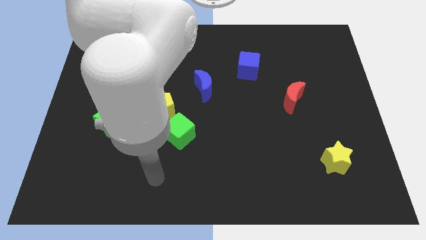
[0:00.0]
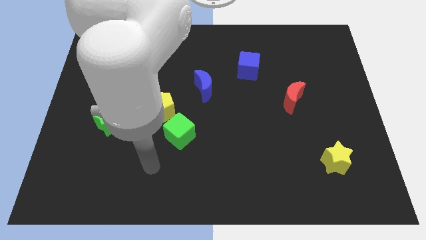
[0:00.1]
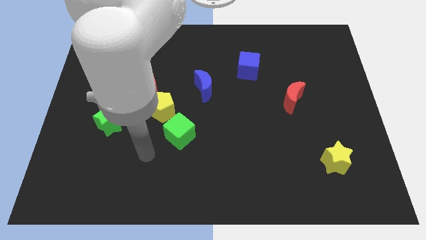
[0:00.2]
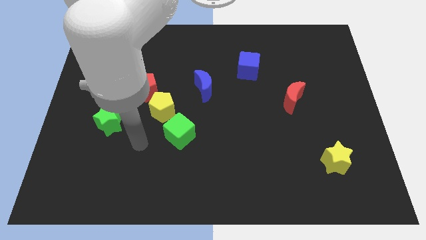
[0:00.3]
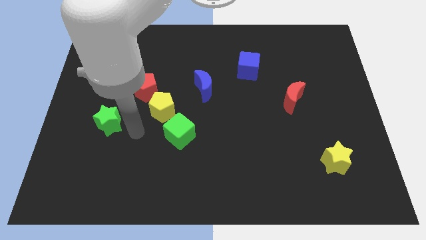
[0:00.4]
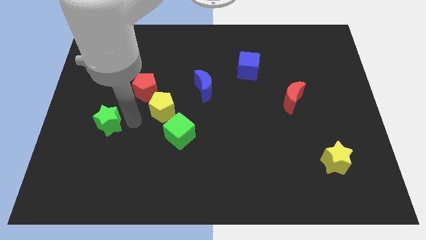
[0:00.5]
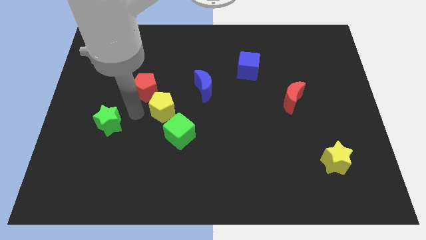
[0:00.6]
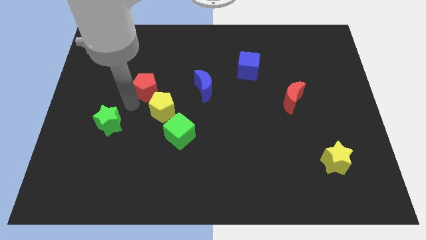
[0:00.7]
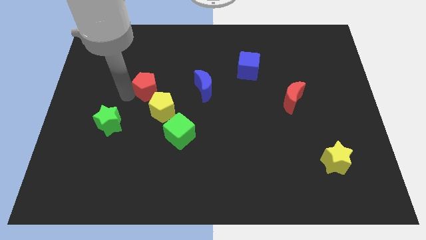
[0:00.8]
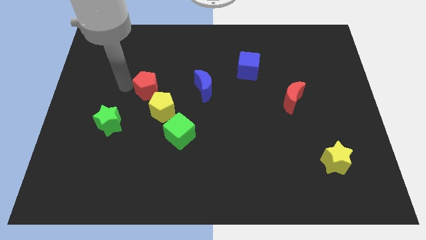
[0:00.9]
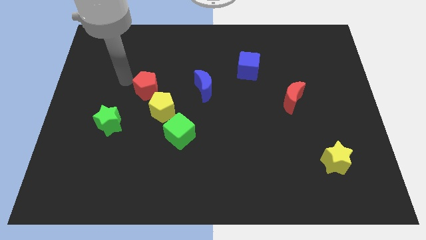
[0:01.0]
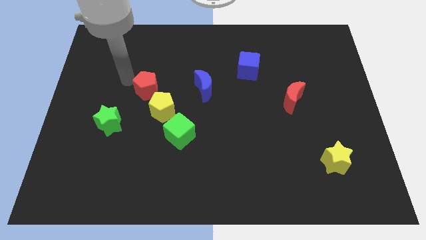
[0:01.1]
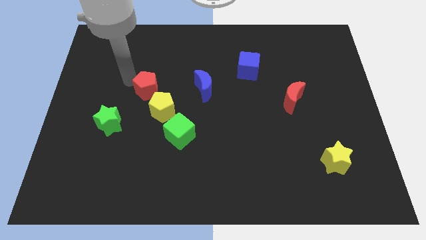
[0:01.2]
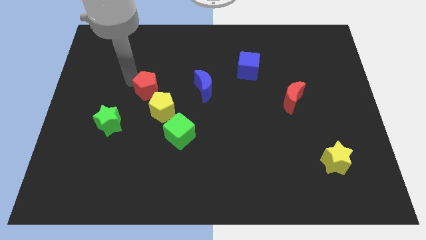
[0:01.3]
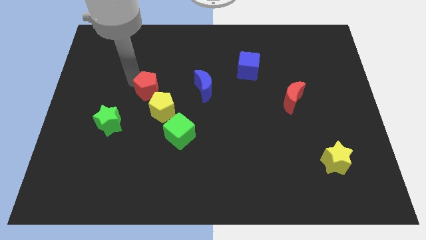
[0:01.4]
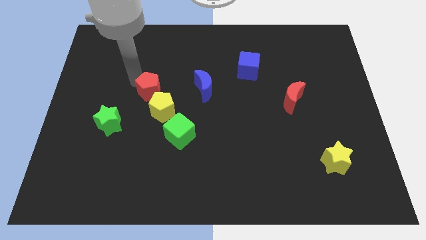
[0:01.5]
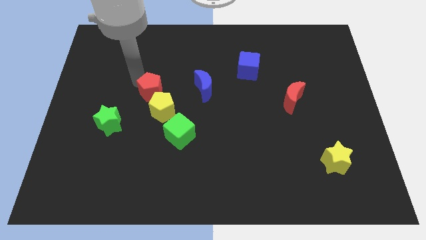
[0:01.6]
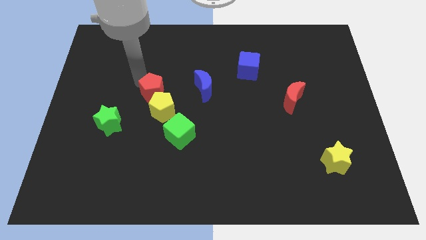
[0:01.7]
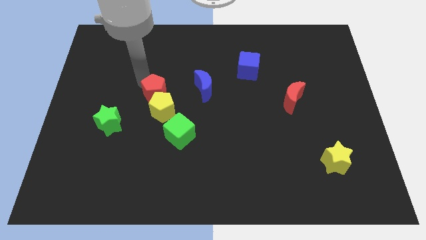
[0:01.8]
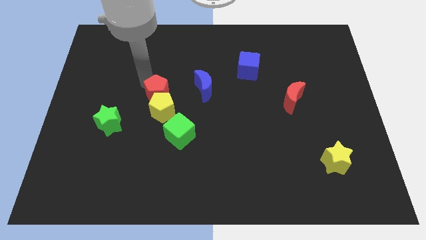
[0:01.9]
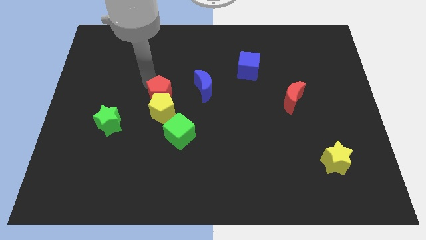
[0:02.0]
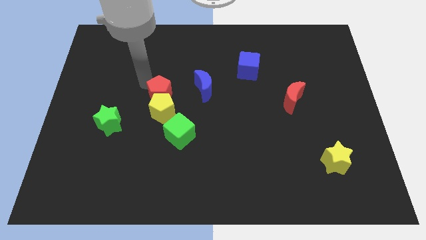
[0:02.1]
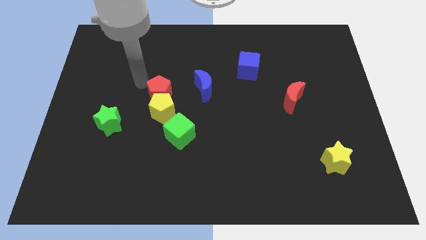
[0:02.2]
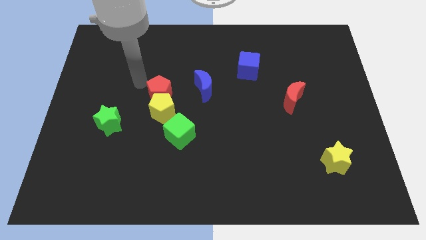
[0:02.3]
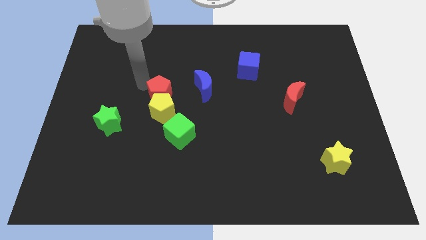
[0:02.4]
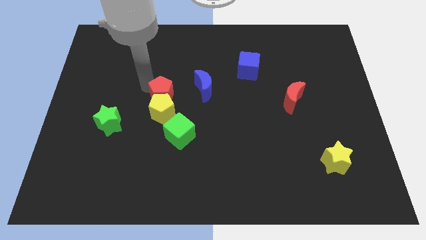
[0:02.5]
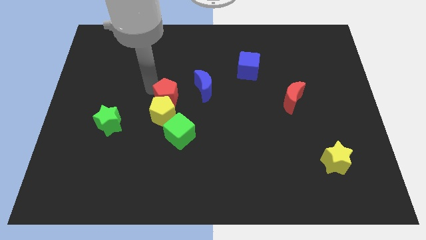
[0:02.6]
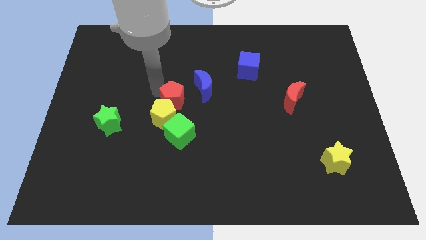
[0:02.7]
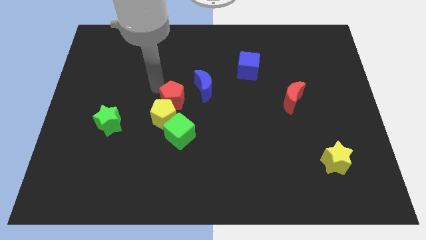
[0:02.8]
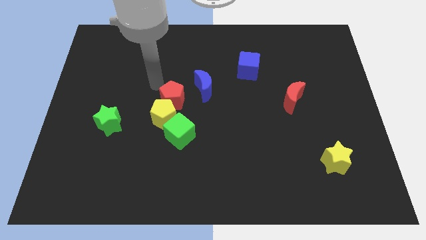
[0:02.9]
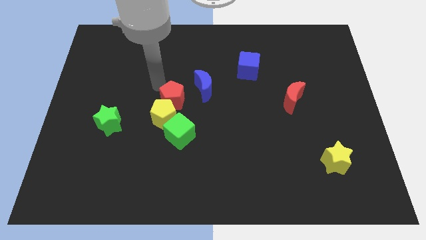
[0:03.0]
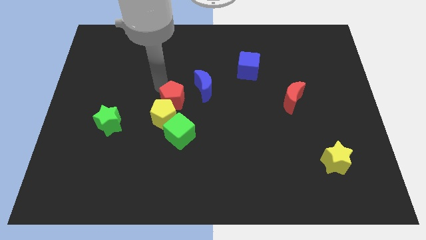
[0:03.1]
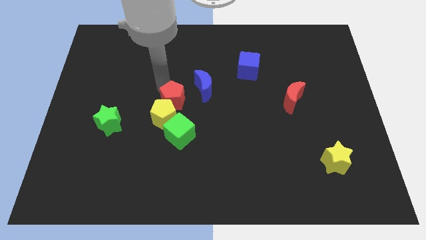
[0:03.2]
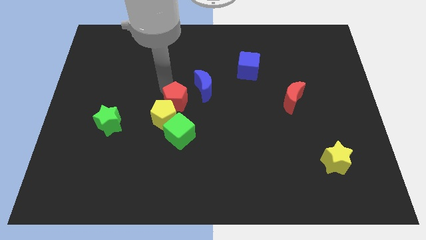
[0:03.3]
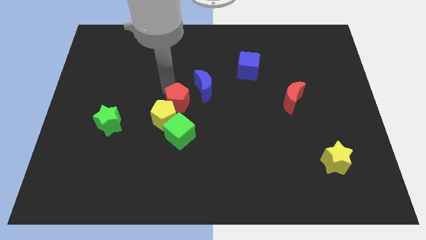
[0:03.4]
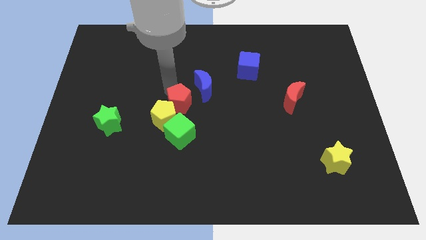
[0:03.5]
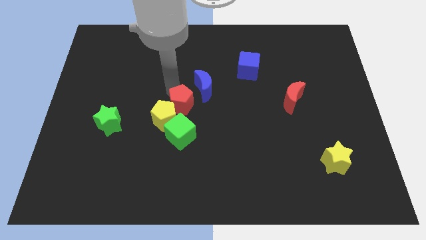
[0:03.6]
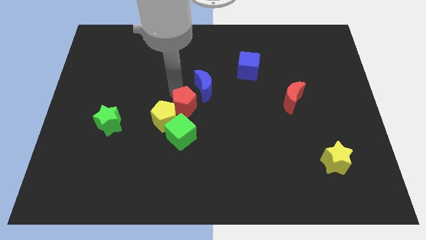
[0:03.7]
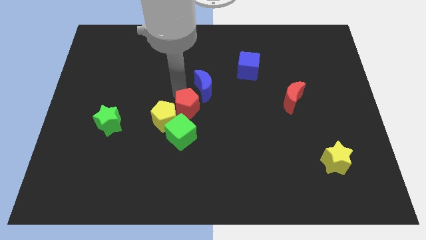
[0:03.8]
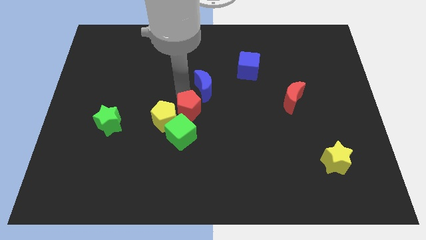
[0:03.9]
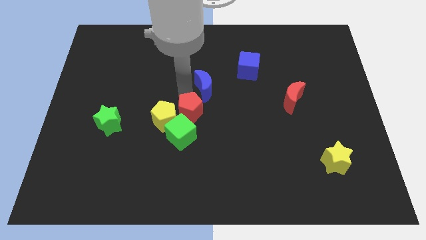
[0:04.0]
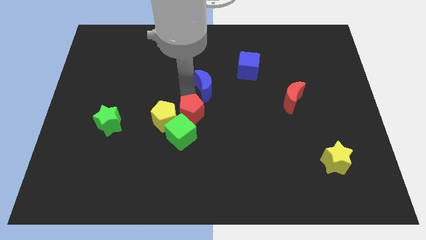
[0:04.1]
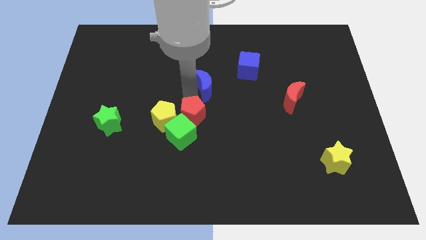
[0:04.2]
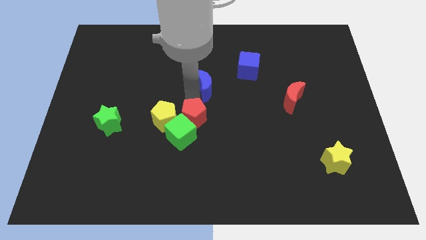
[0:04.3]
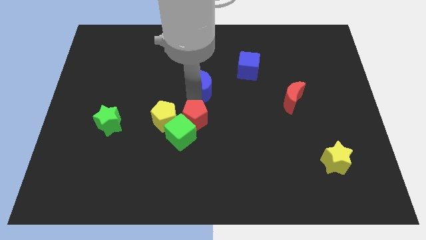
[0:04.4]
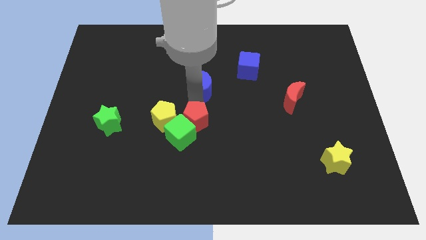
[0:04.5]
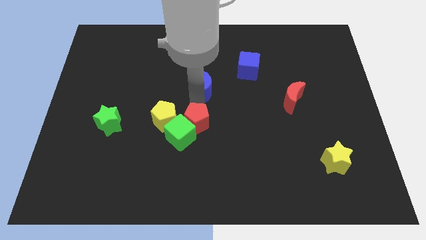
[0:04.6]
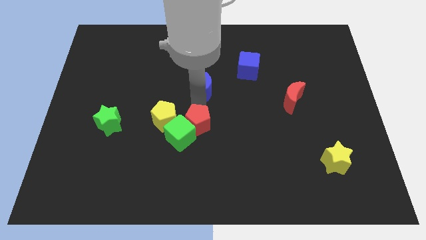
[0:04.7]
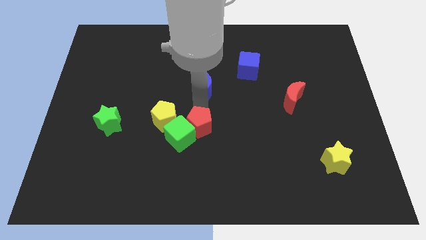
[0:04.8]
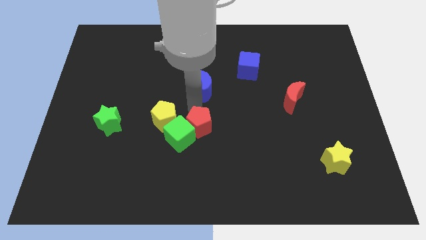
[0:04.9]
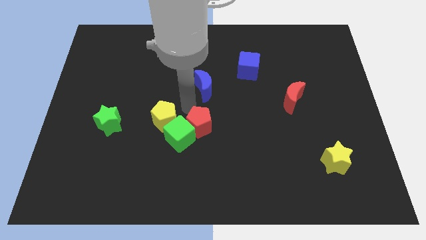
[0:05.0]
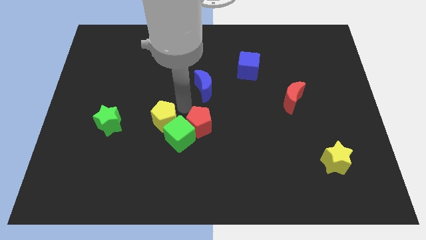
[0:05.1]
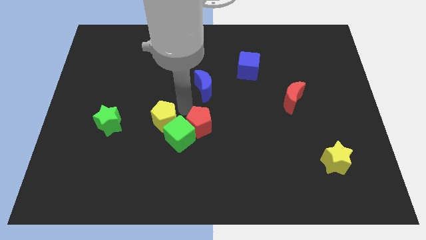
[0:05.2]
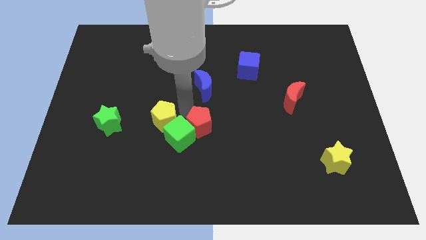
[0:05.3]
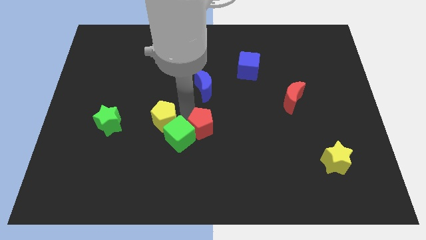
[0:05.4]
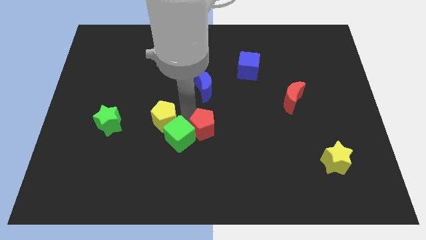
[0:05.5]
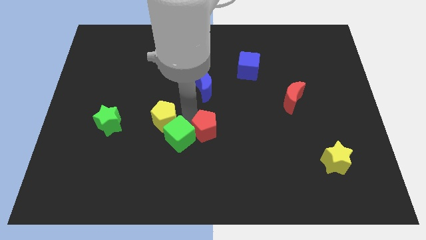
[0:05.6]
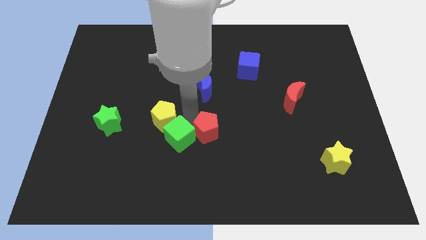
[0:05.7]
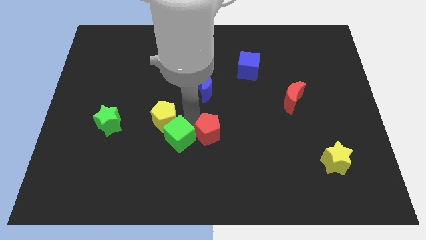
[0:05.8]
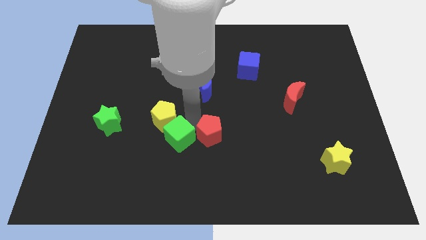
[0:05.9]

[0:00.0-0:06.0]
push the red pentagon diagonally down and right

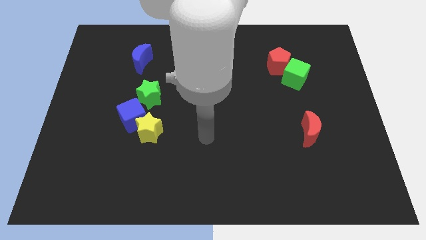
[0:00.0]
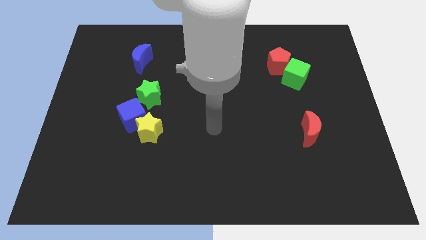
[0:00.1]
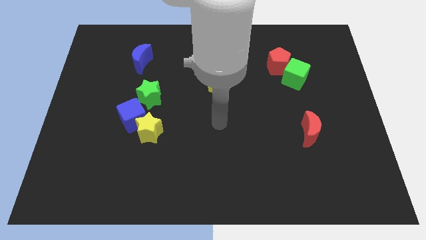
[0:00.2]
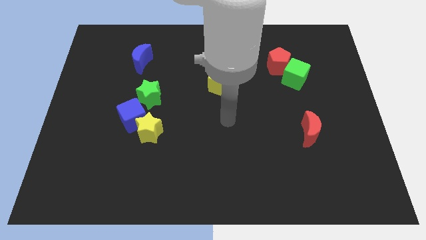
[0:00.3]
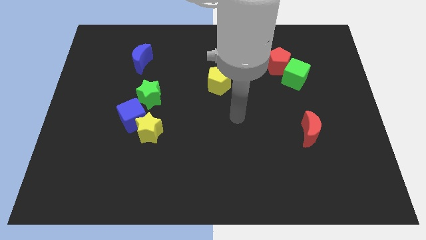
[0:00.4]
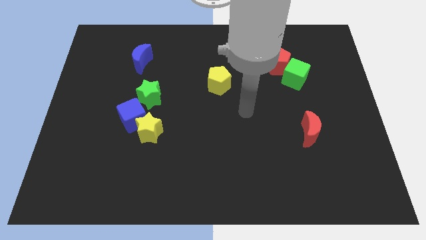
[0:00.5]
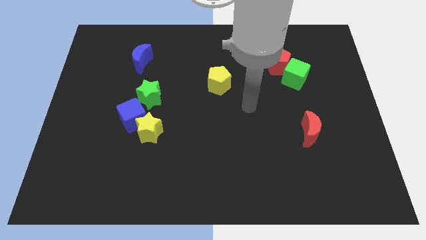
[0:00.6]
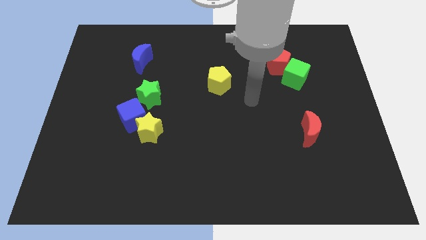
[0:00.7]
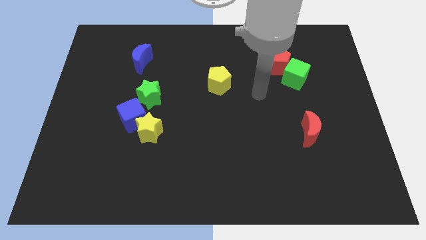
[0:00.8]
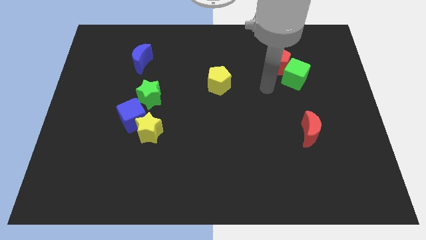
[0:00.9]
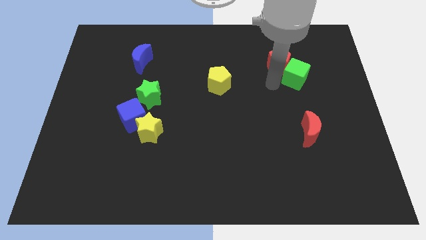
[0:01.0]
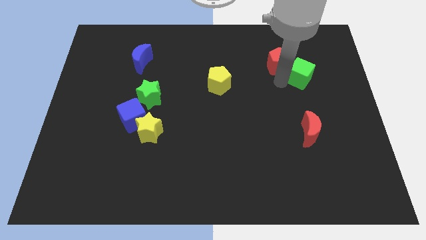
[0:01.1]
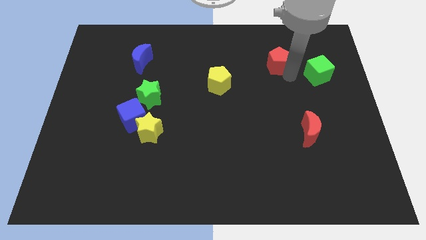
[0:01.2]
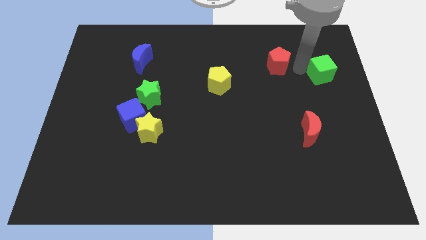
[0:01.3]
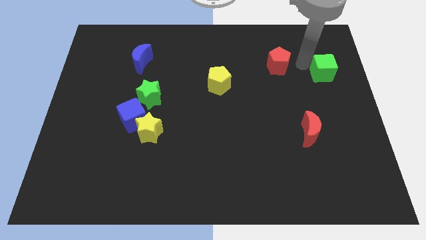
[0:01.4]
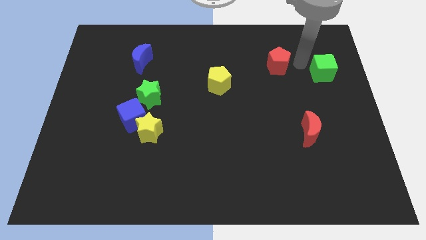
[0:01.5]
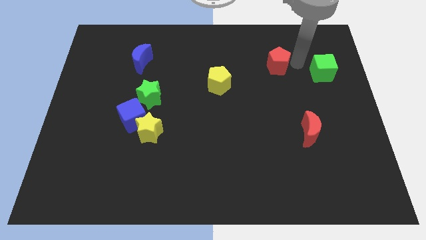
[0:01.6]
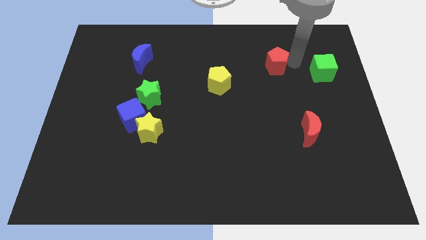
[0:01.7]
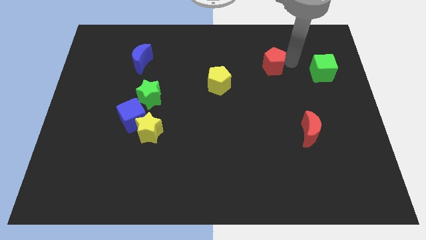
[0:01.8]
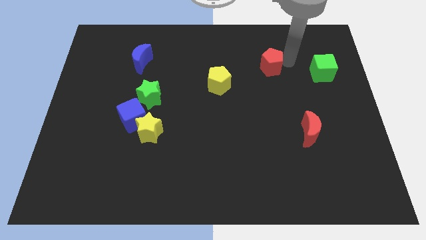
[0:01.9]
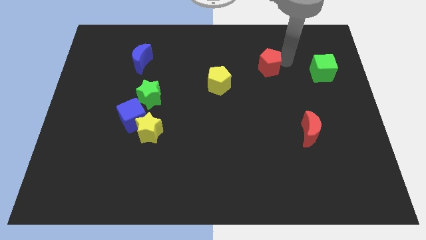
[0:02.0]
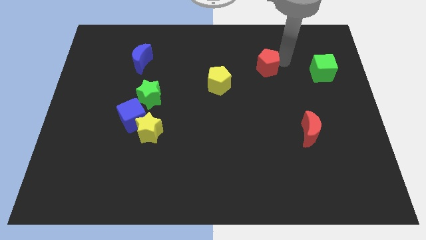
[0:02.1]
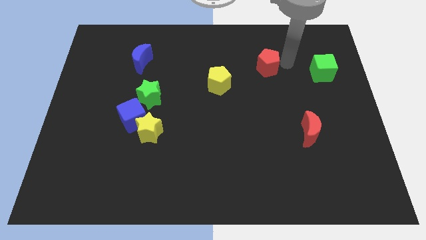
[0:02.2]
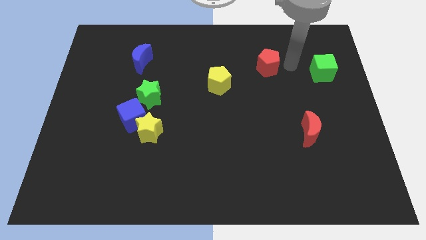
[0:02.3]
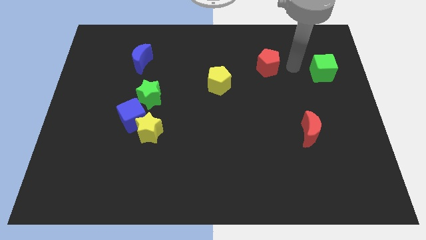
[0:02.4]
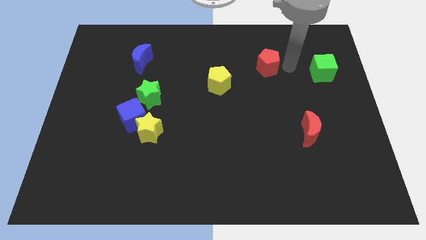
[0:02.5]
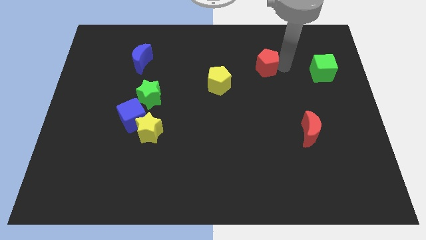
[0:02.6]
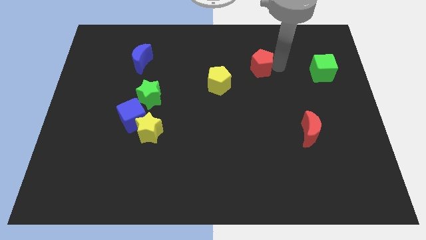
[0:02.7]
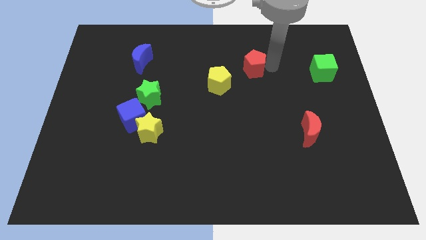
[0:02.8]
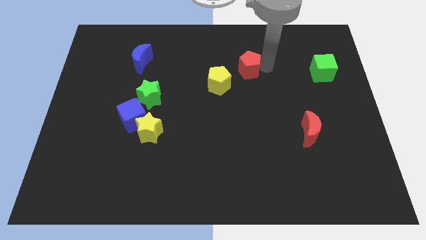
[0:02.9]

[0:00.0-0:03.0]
move the red pentagon to the left a bit
